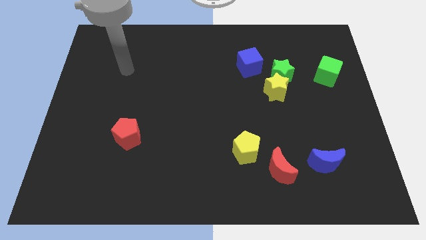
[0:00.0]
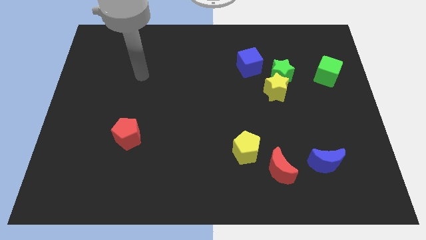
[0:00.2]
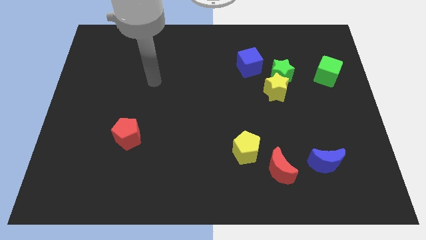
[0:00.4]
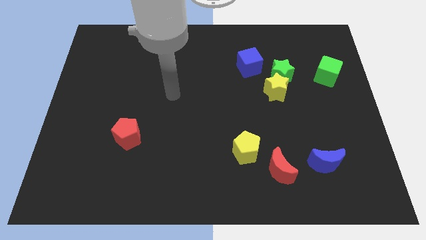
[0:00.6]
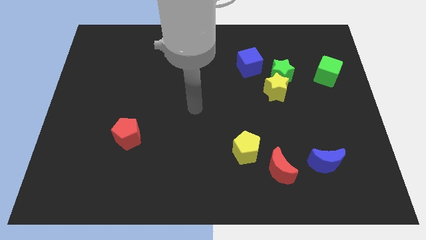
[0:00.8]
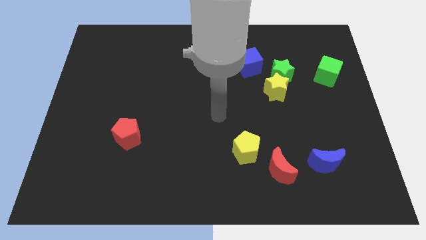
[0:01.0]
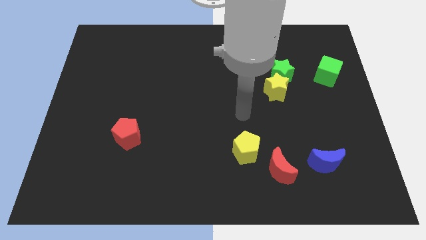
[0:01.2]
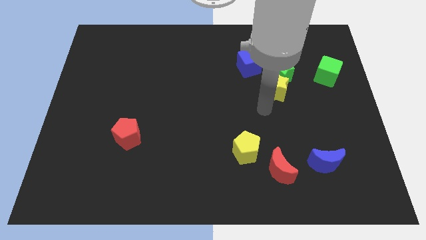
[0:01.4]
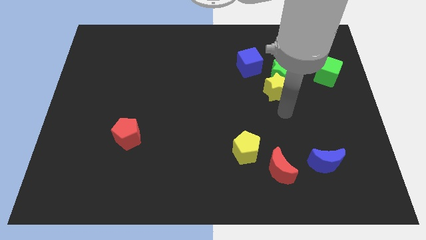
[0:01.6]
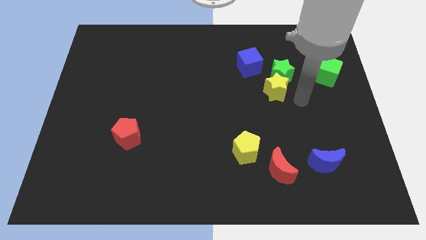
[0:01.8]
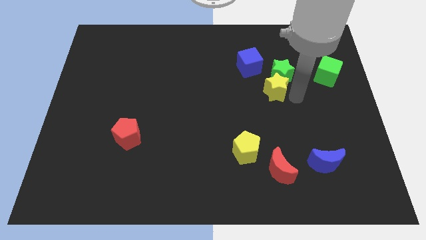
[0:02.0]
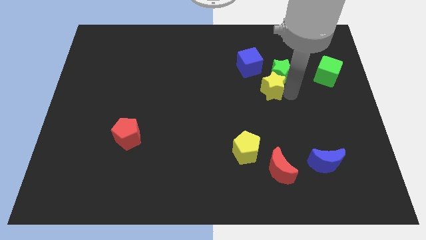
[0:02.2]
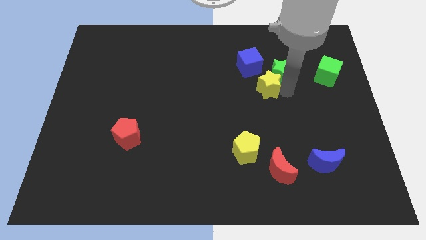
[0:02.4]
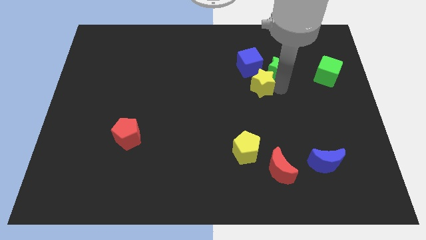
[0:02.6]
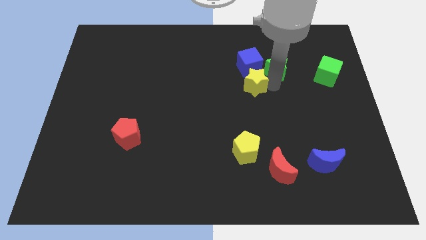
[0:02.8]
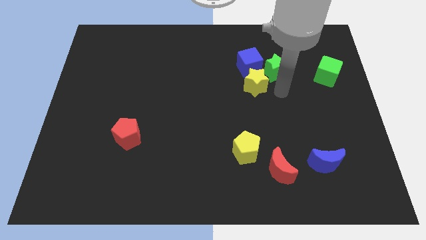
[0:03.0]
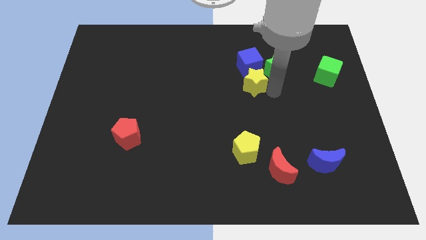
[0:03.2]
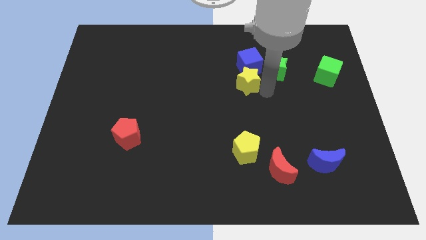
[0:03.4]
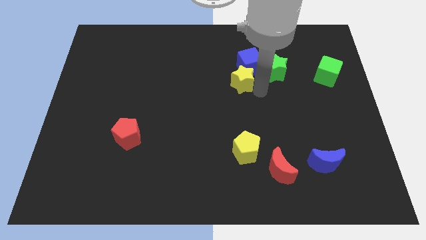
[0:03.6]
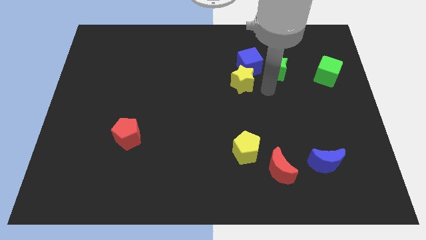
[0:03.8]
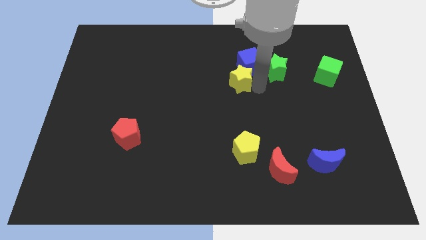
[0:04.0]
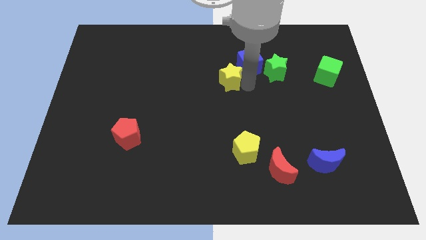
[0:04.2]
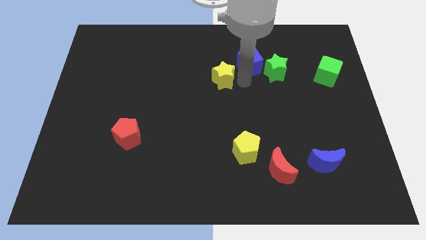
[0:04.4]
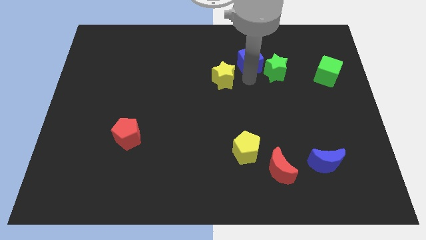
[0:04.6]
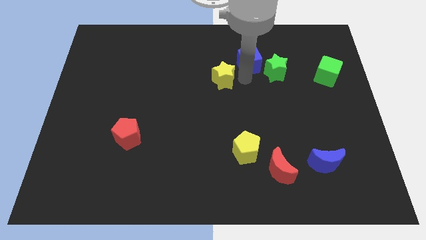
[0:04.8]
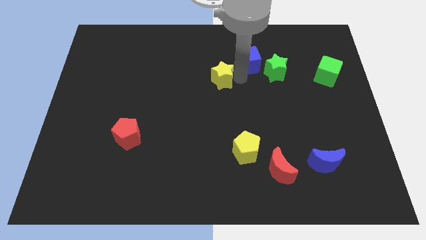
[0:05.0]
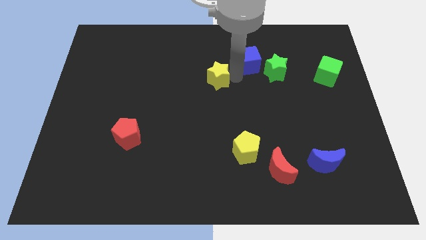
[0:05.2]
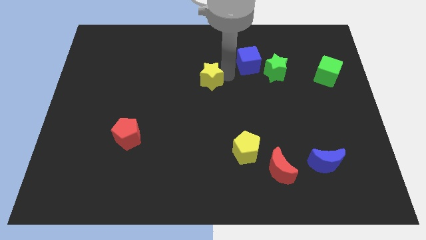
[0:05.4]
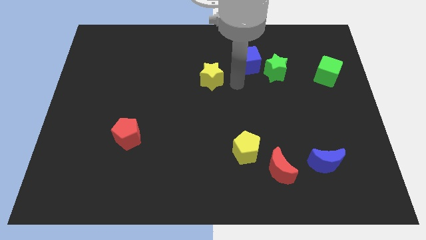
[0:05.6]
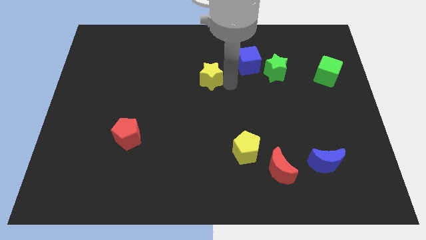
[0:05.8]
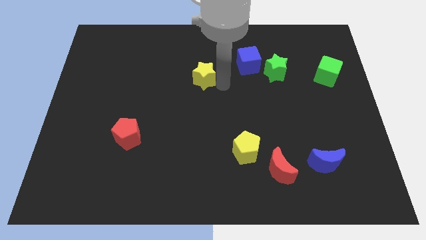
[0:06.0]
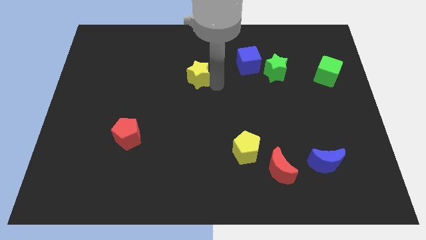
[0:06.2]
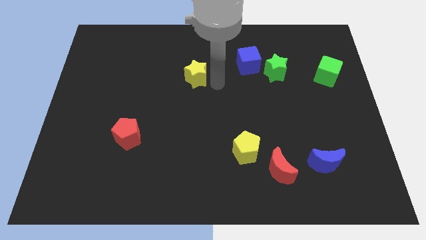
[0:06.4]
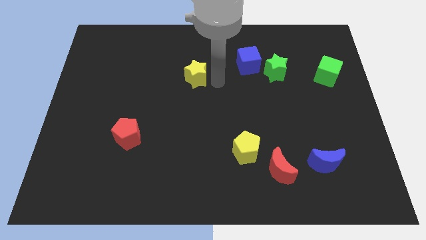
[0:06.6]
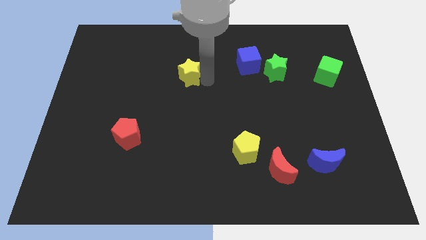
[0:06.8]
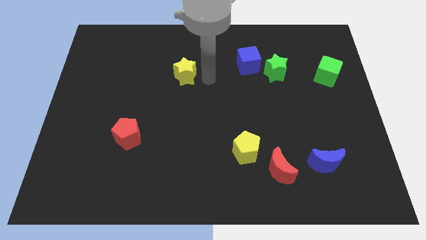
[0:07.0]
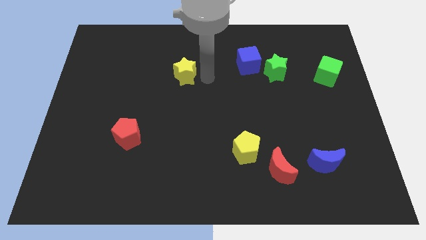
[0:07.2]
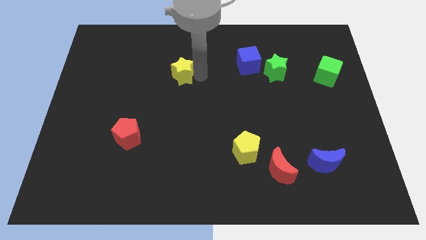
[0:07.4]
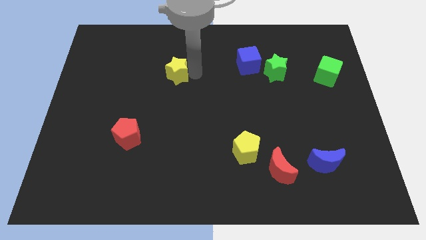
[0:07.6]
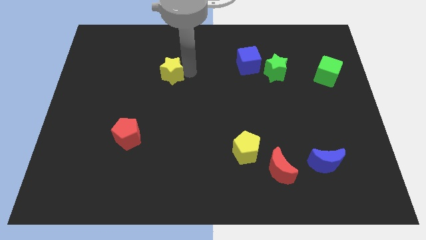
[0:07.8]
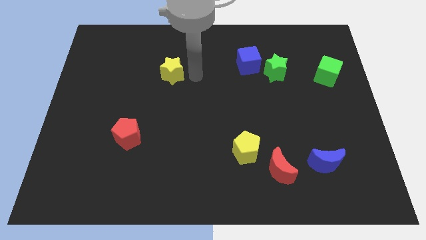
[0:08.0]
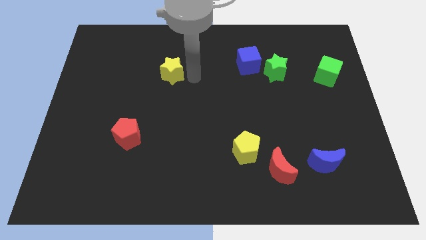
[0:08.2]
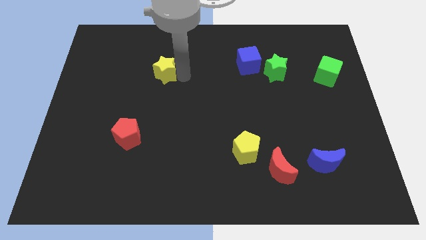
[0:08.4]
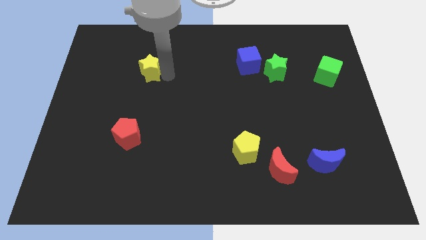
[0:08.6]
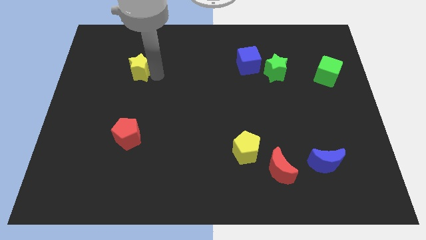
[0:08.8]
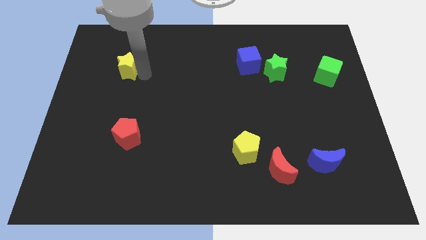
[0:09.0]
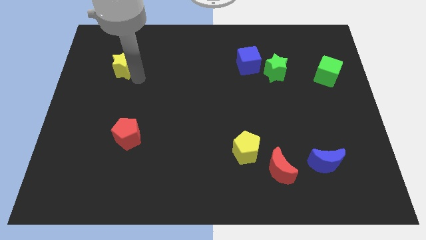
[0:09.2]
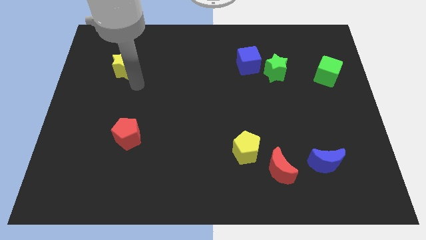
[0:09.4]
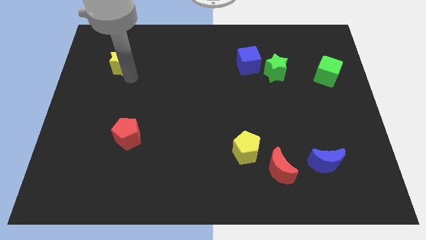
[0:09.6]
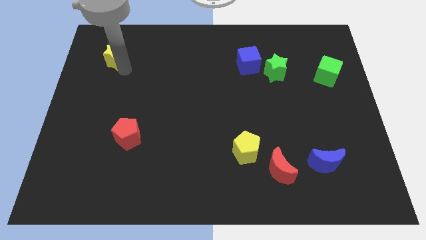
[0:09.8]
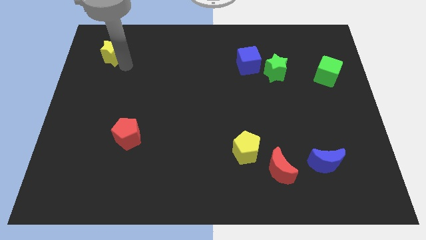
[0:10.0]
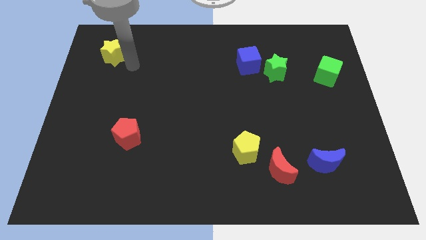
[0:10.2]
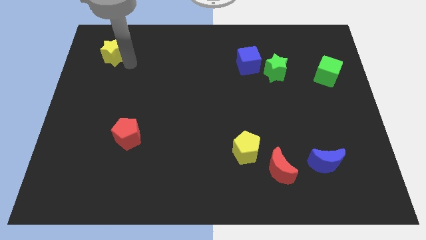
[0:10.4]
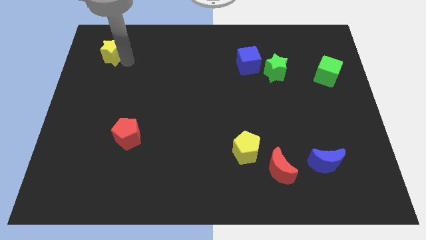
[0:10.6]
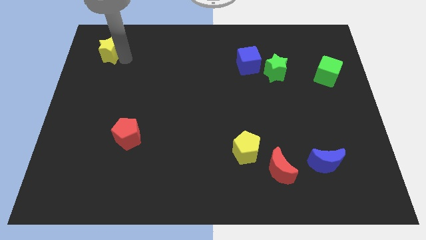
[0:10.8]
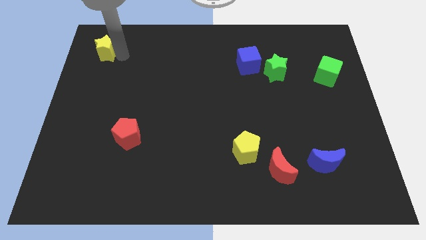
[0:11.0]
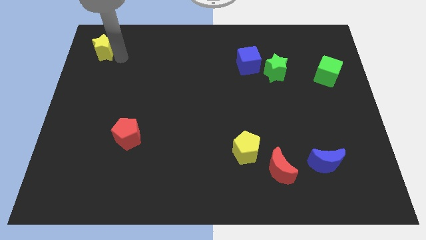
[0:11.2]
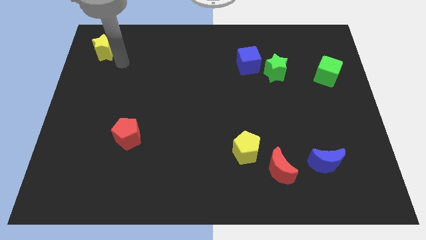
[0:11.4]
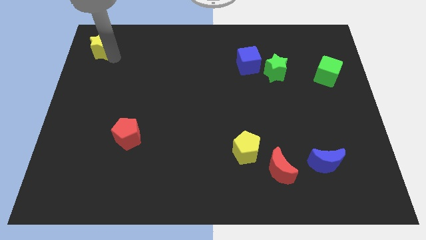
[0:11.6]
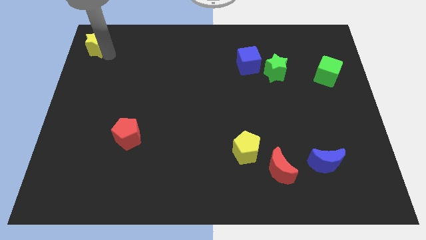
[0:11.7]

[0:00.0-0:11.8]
push the yellow star to the top left
